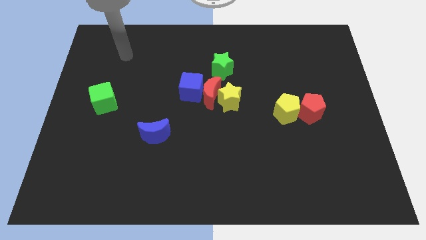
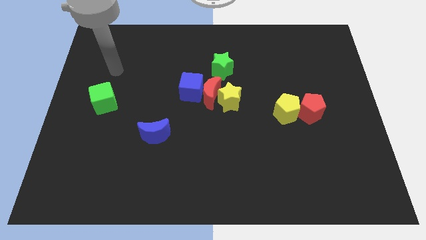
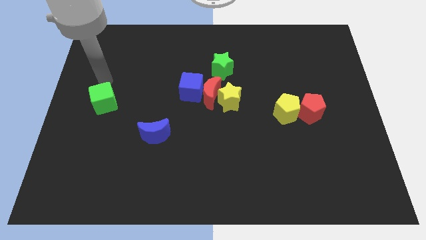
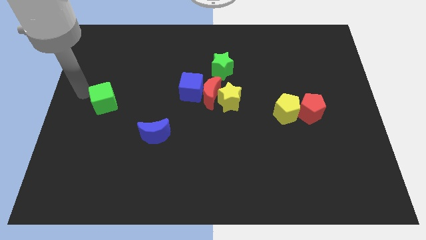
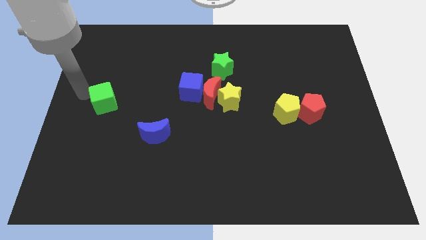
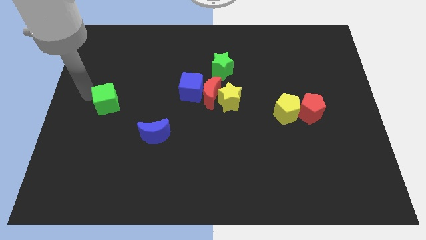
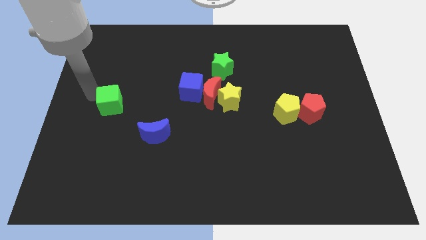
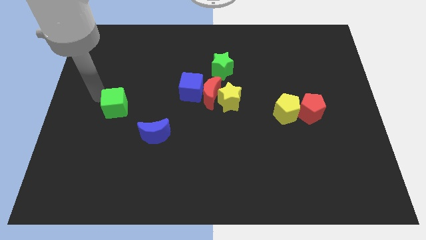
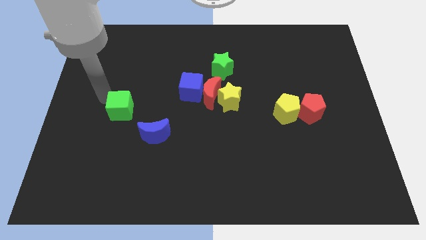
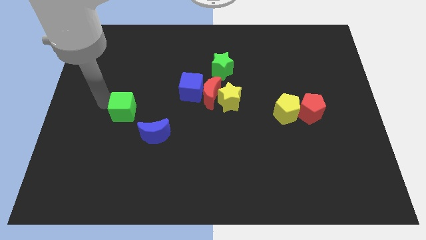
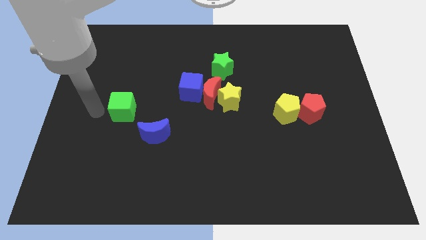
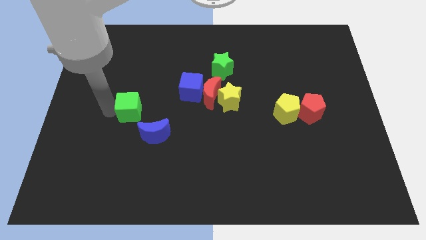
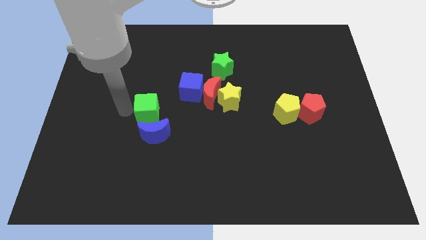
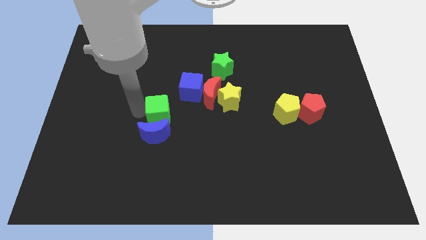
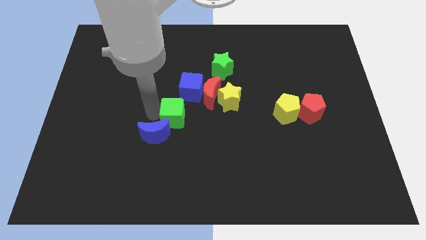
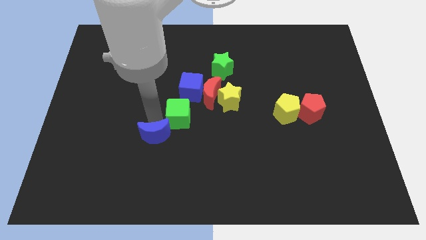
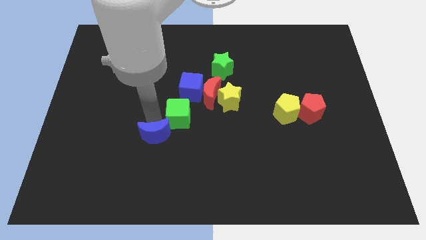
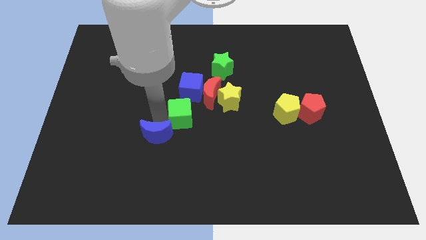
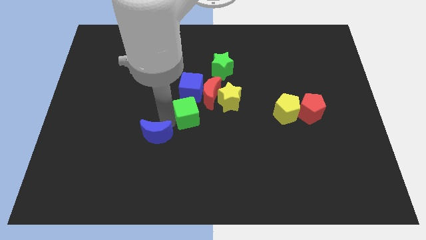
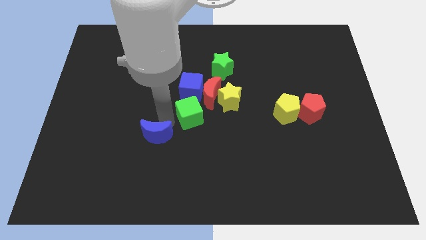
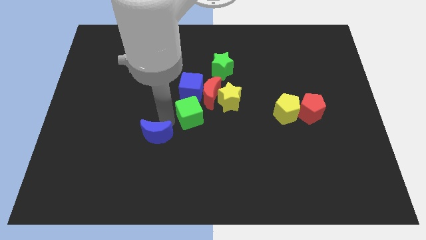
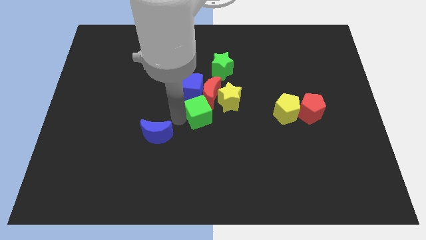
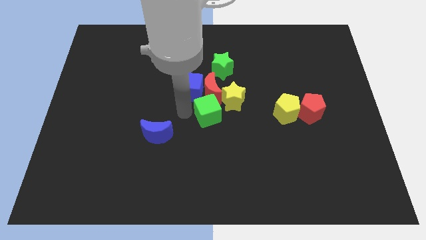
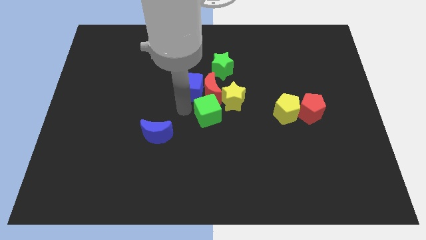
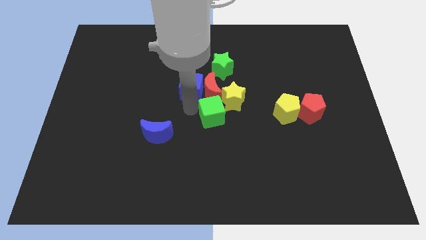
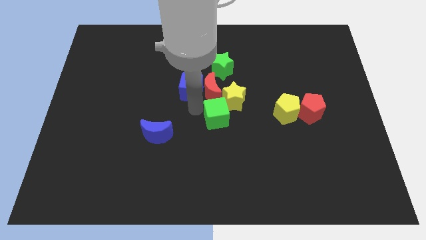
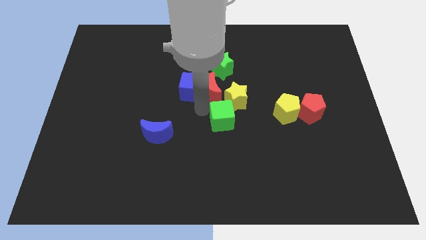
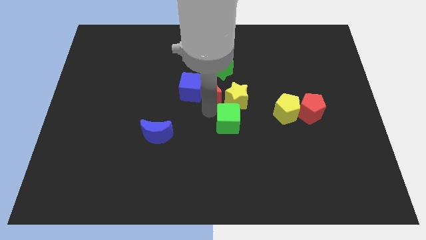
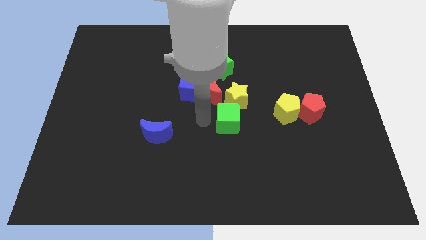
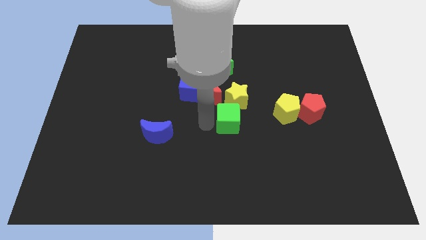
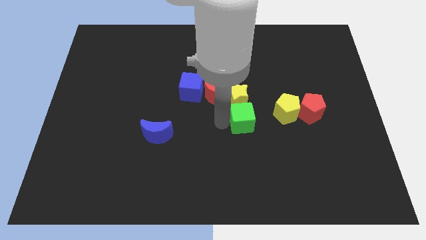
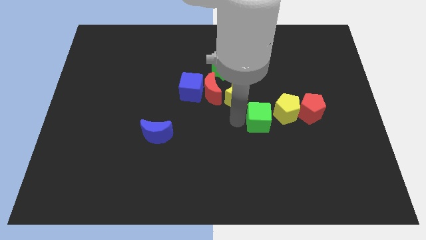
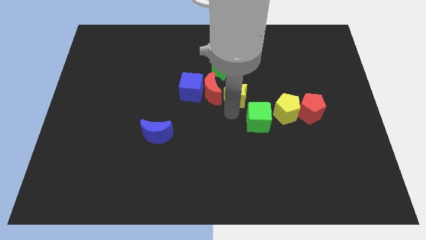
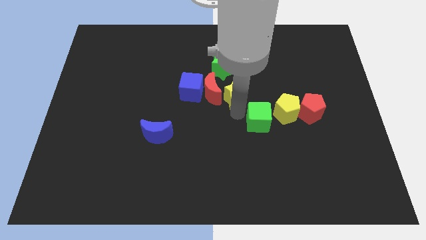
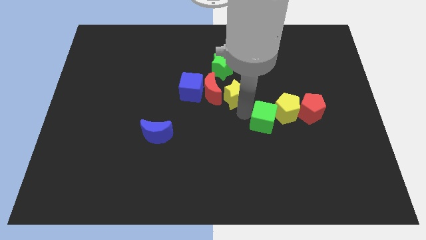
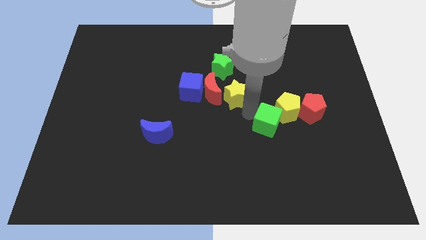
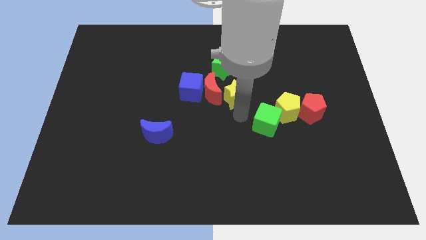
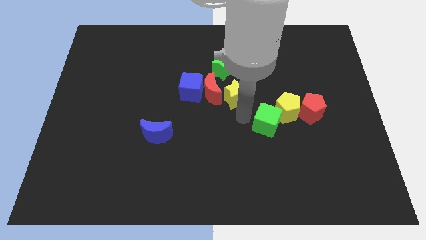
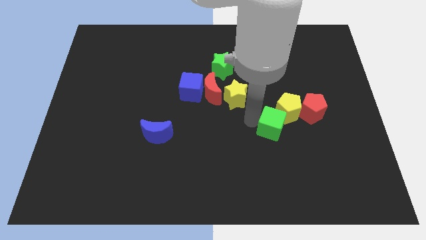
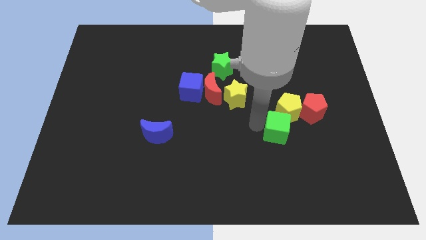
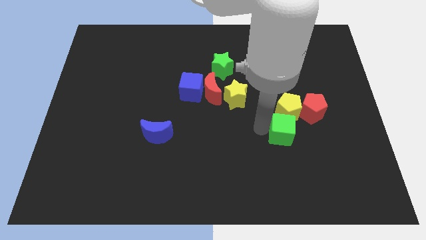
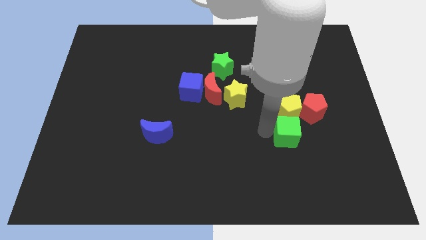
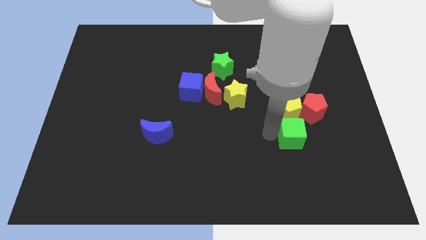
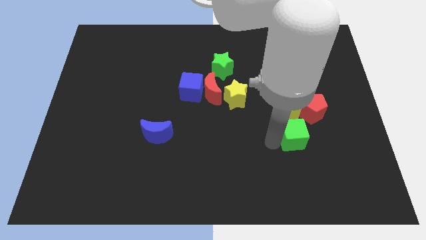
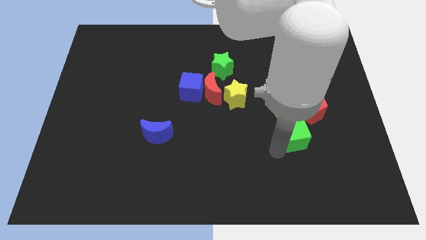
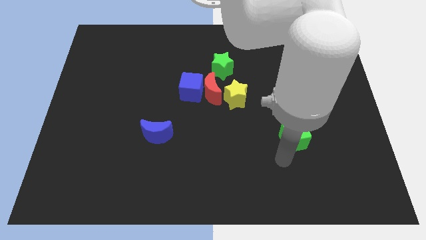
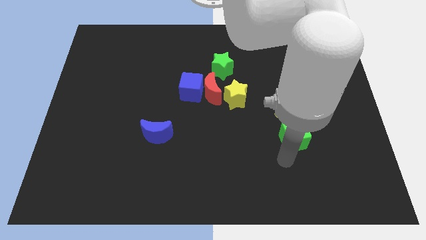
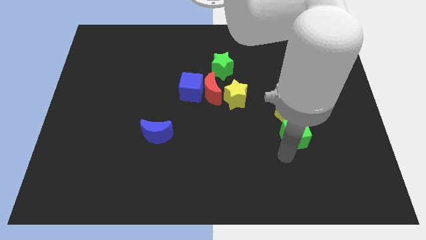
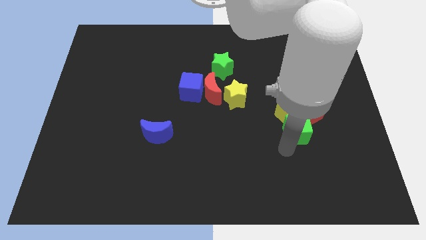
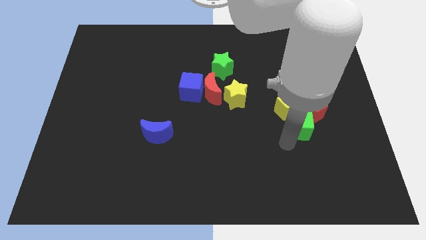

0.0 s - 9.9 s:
slide the green cube close to the red pentagon

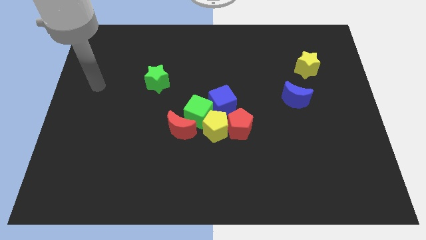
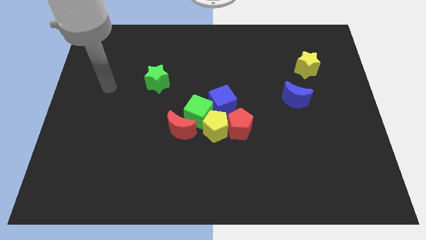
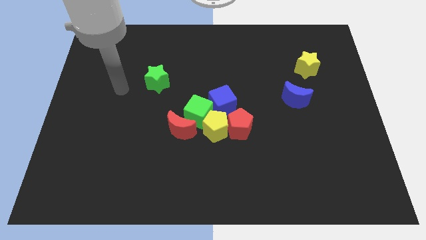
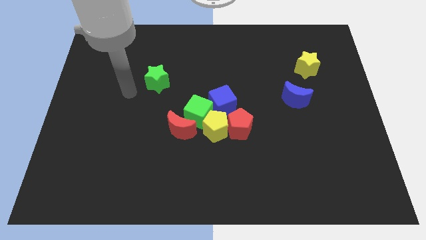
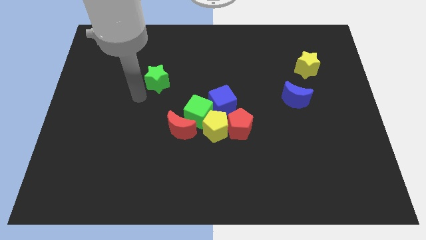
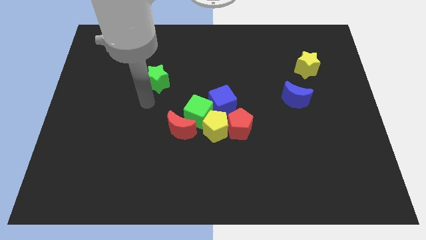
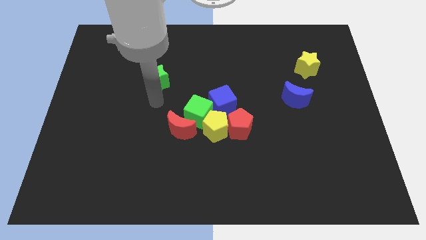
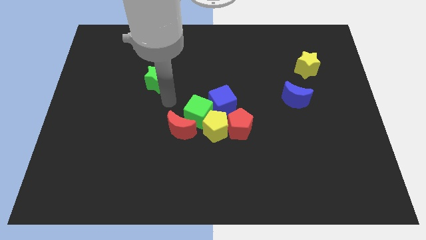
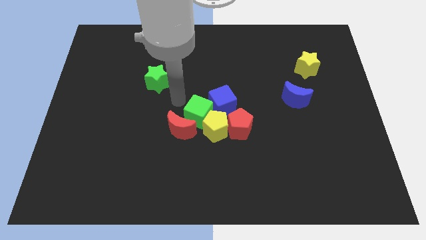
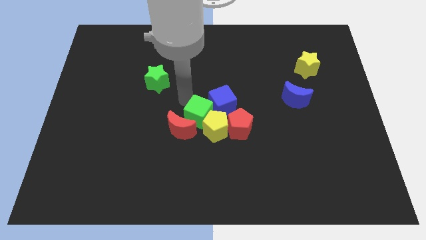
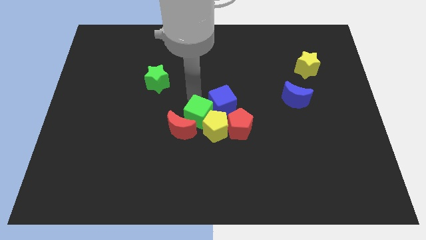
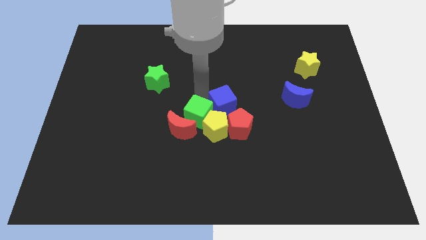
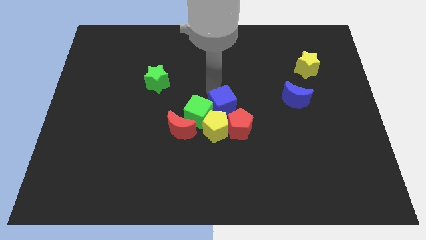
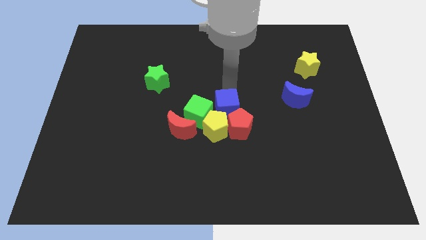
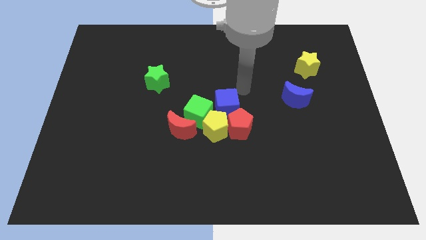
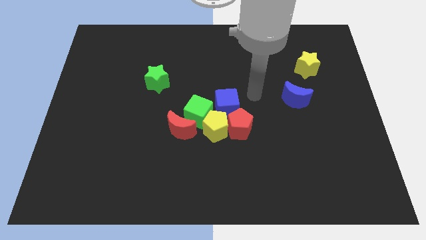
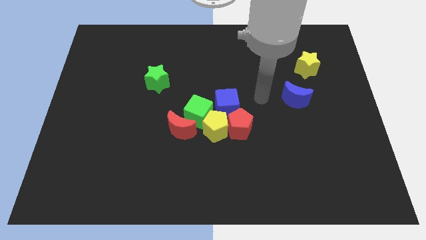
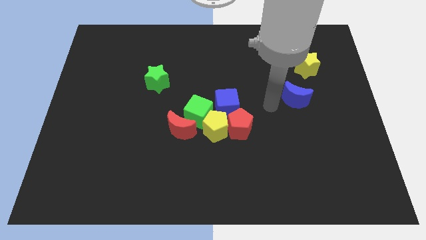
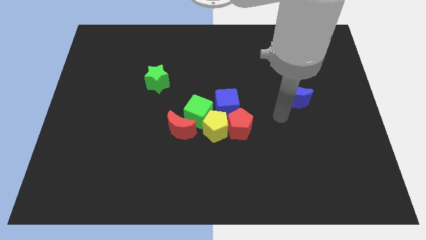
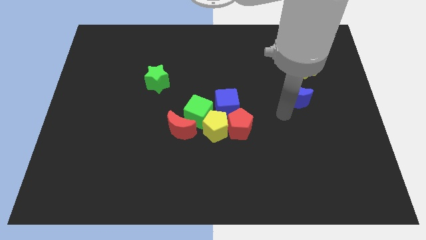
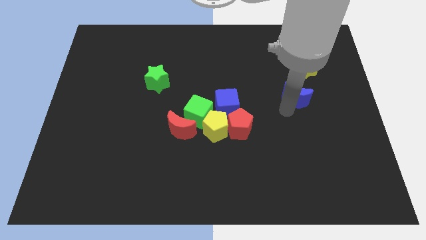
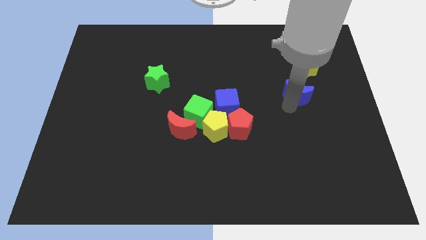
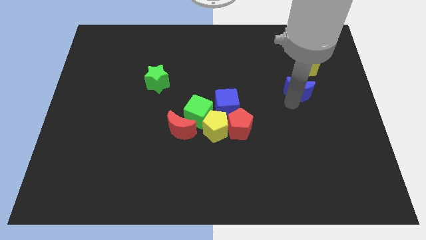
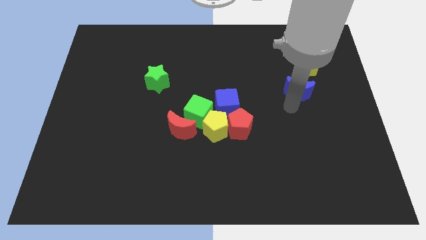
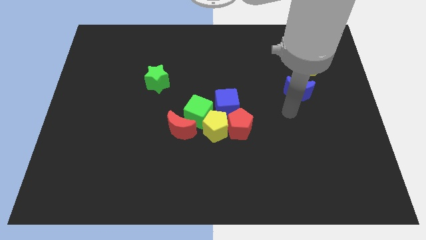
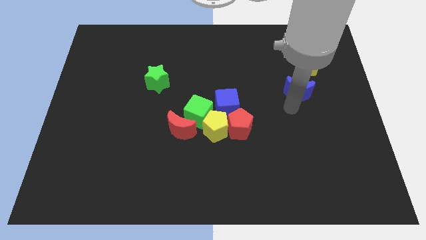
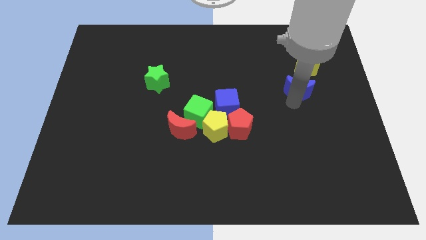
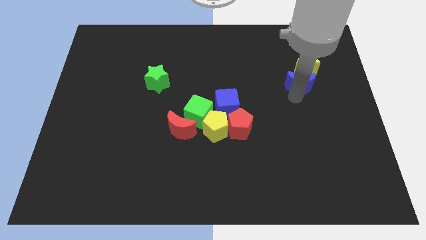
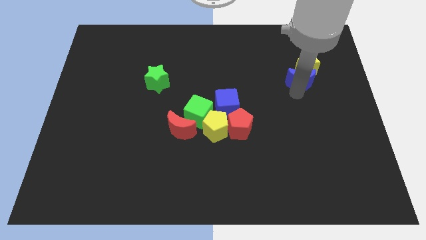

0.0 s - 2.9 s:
slide the blue moon next to the yellow star
